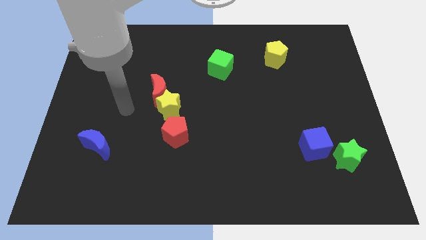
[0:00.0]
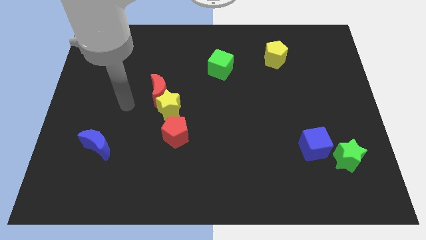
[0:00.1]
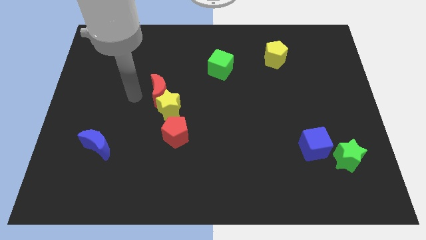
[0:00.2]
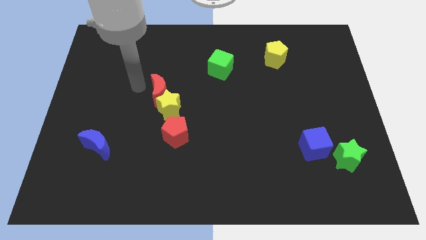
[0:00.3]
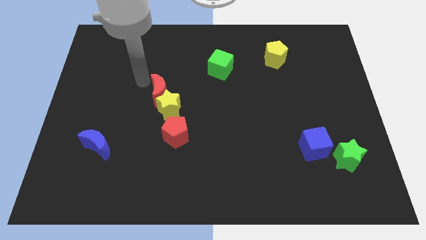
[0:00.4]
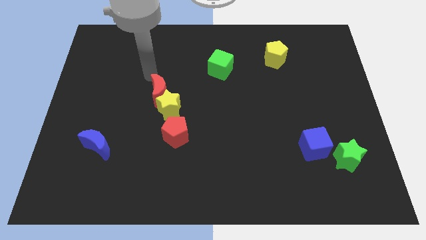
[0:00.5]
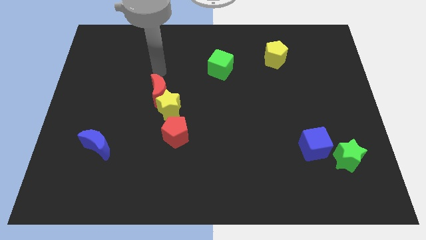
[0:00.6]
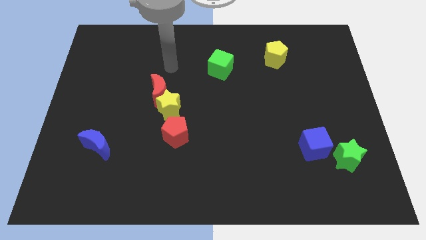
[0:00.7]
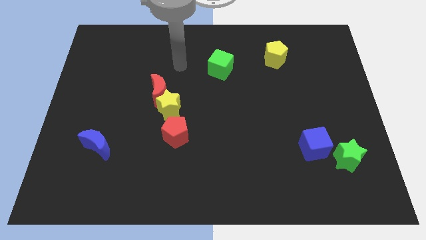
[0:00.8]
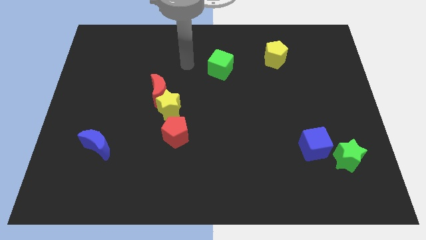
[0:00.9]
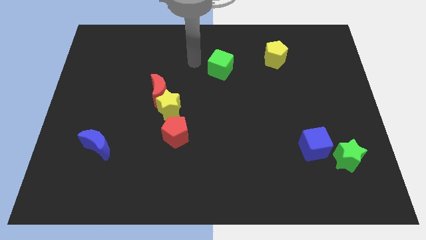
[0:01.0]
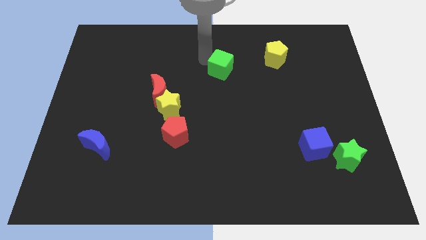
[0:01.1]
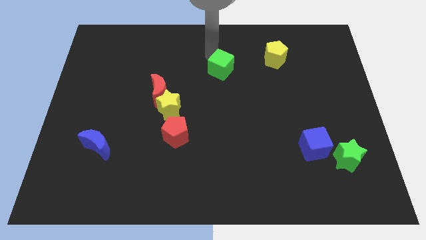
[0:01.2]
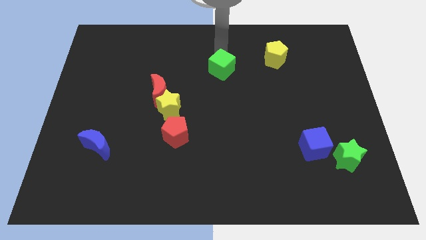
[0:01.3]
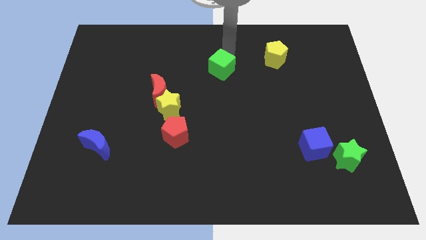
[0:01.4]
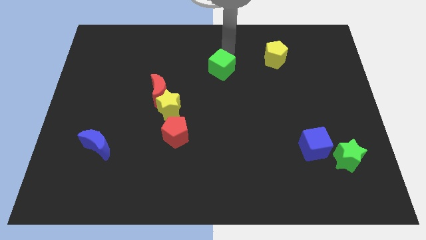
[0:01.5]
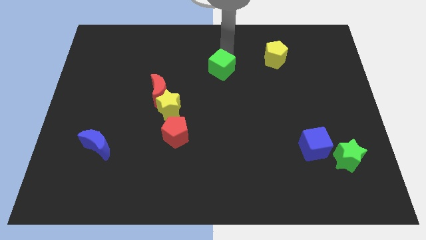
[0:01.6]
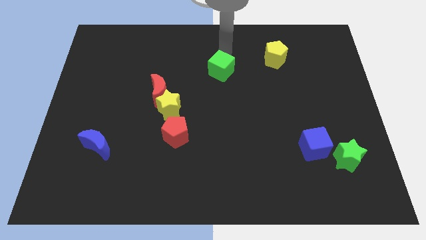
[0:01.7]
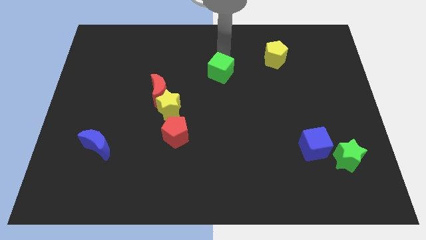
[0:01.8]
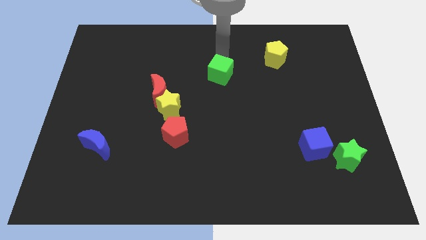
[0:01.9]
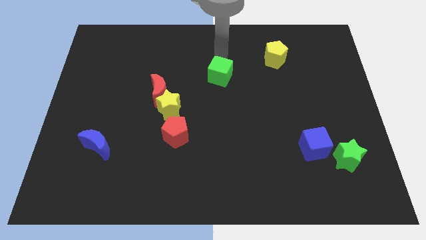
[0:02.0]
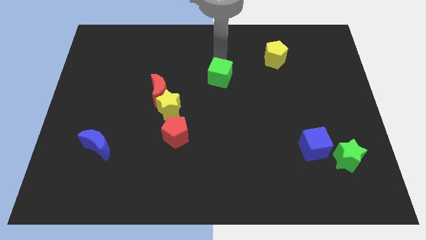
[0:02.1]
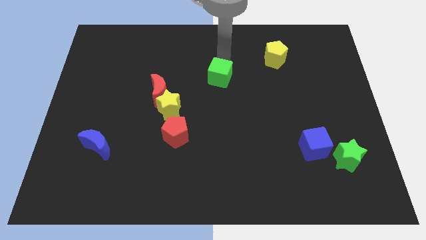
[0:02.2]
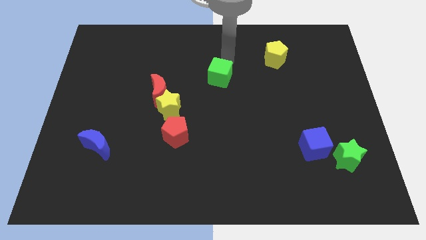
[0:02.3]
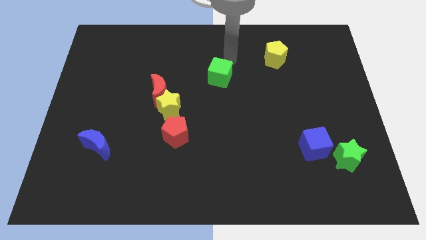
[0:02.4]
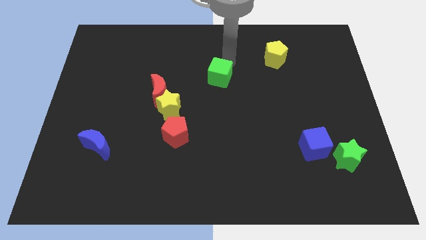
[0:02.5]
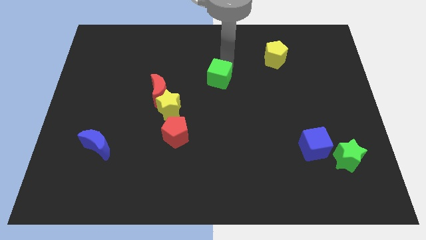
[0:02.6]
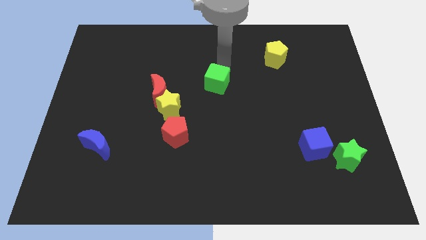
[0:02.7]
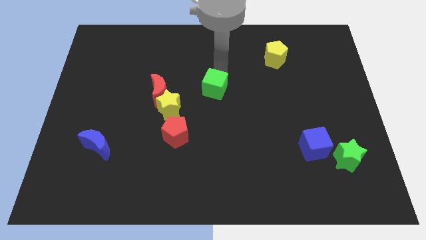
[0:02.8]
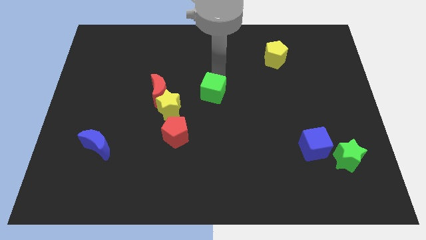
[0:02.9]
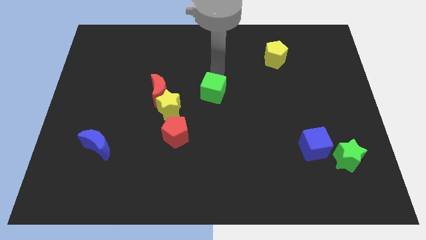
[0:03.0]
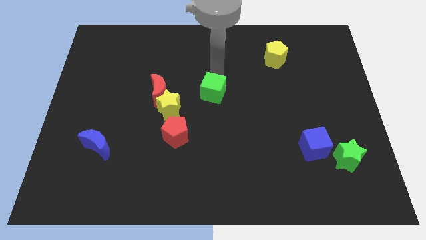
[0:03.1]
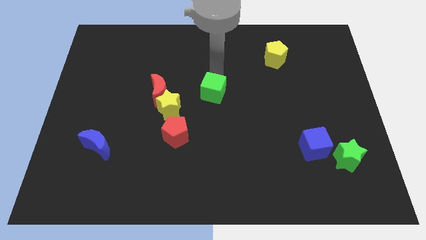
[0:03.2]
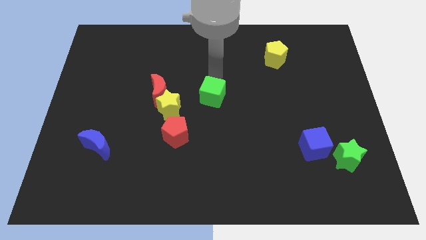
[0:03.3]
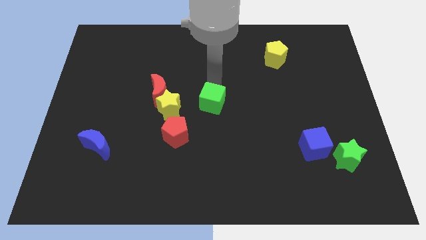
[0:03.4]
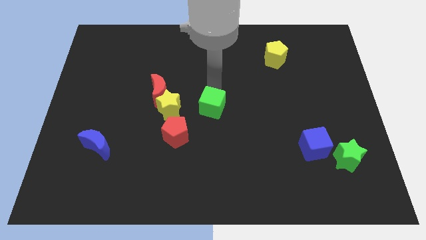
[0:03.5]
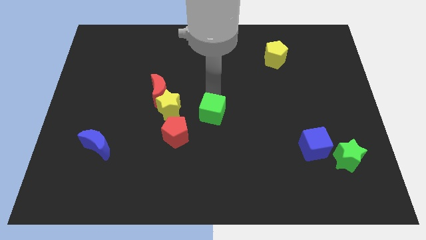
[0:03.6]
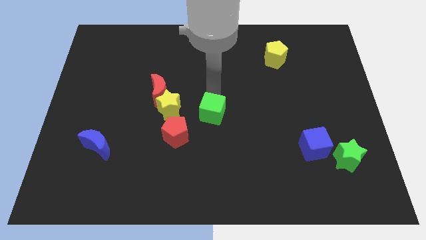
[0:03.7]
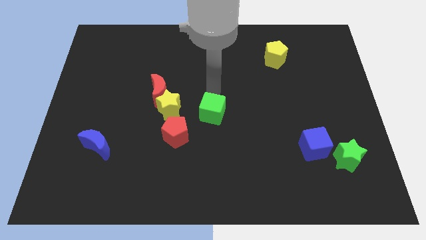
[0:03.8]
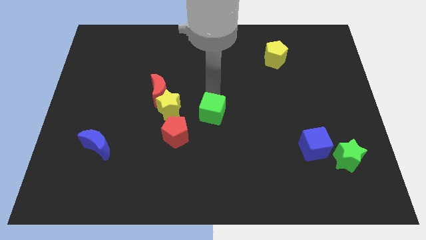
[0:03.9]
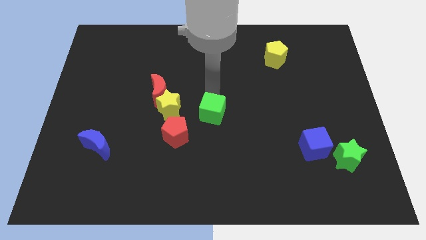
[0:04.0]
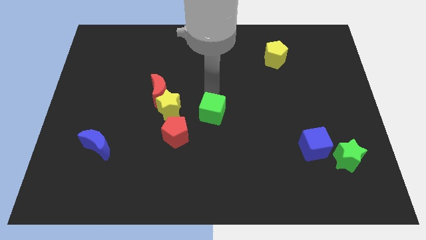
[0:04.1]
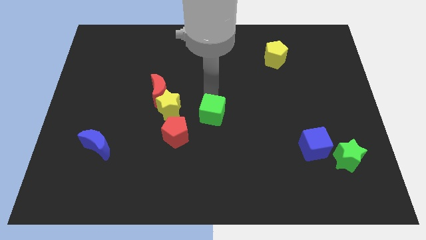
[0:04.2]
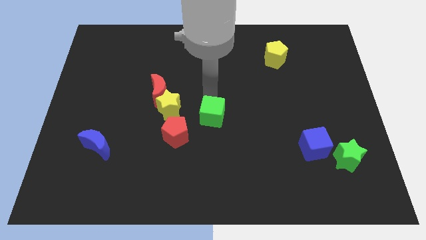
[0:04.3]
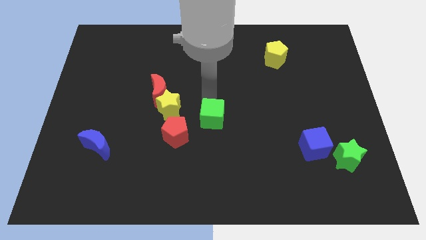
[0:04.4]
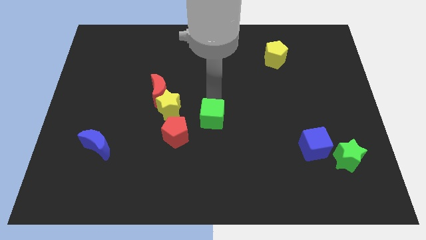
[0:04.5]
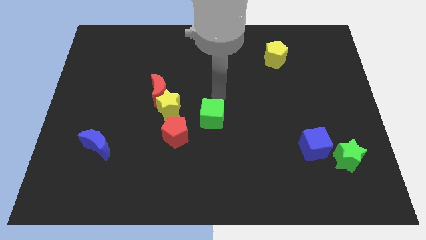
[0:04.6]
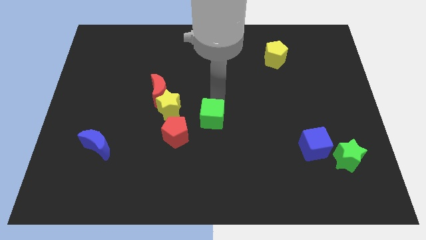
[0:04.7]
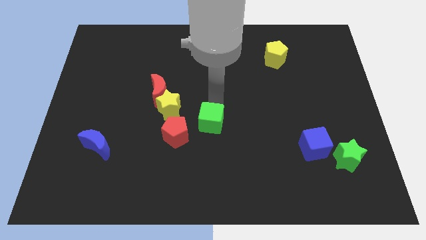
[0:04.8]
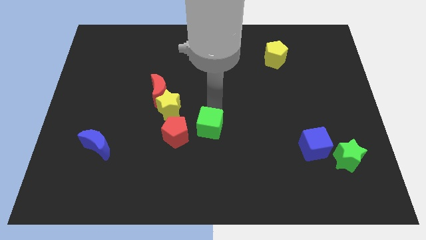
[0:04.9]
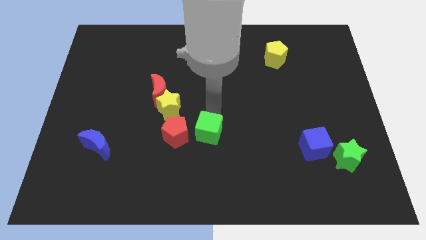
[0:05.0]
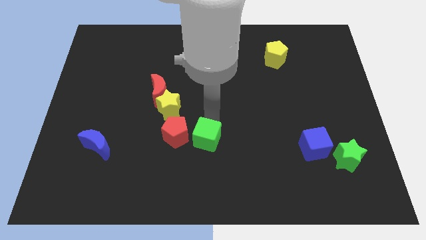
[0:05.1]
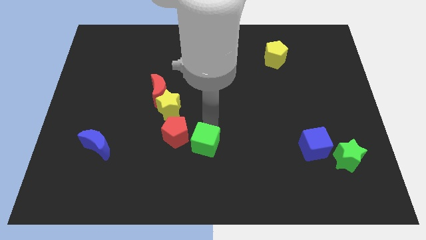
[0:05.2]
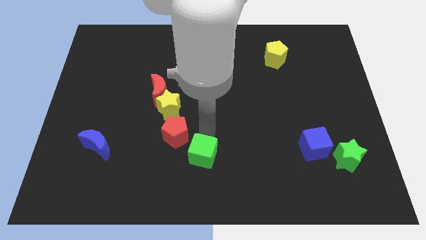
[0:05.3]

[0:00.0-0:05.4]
move the green cube to the bottom side

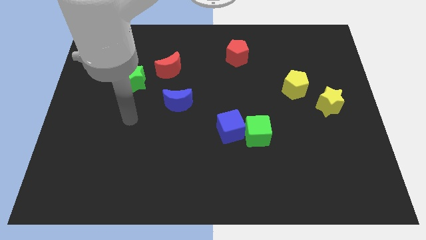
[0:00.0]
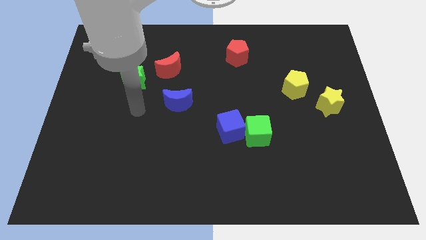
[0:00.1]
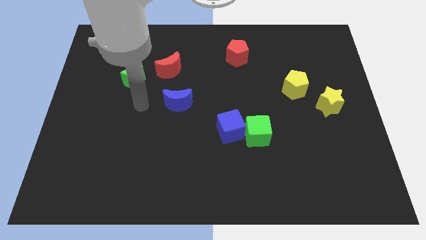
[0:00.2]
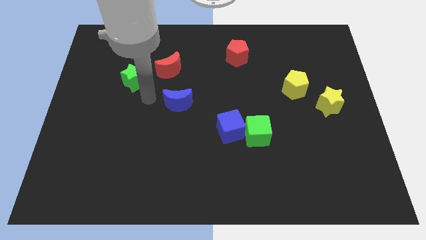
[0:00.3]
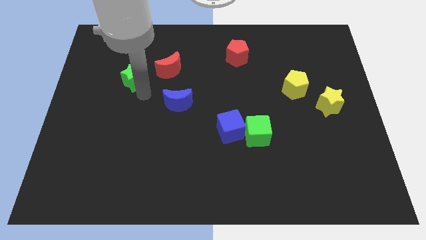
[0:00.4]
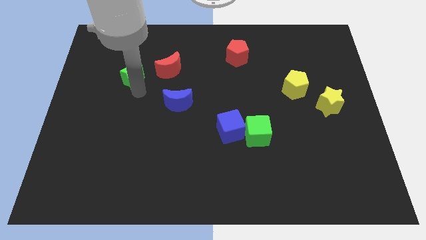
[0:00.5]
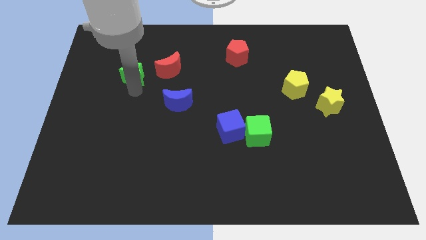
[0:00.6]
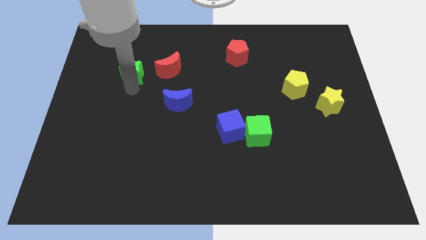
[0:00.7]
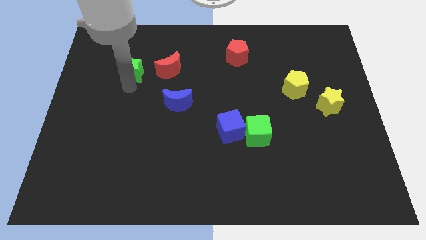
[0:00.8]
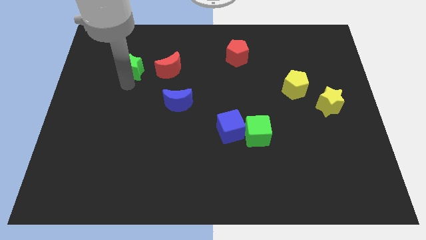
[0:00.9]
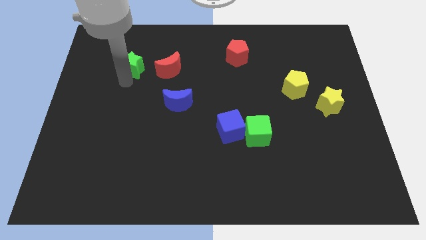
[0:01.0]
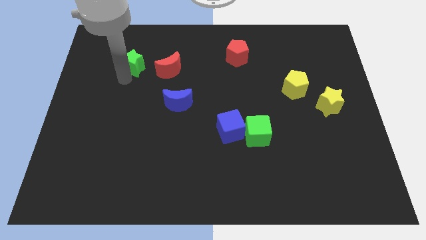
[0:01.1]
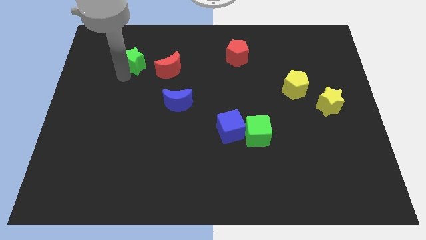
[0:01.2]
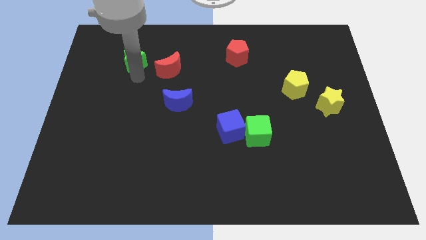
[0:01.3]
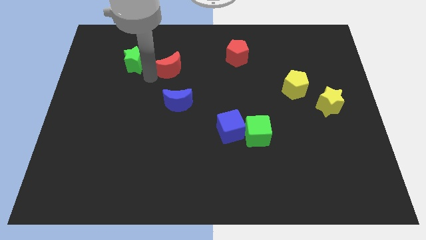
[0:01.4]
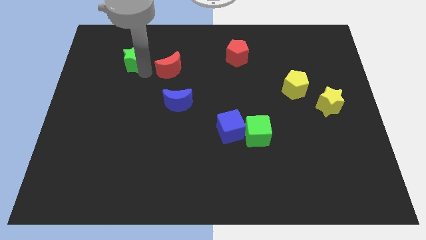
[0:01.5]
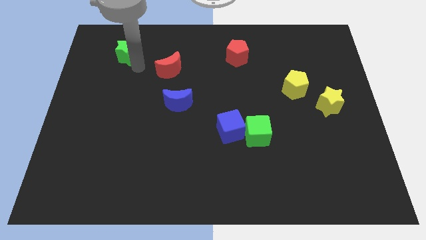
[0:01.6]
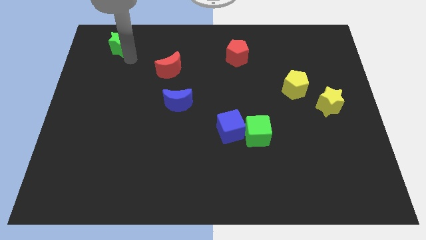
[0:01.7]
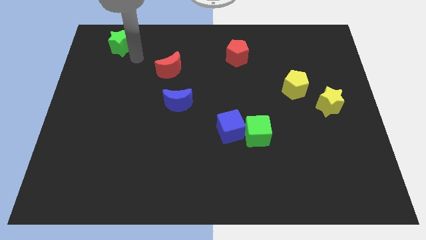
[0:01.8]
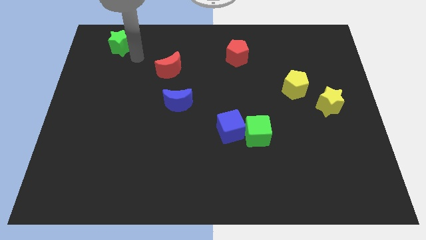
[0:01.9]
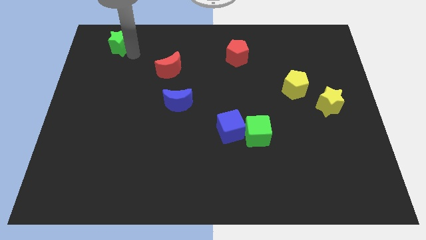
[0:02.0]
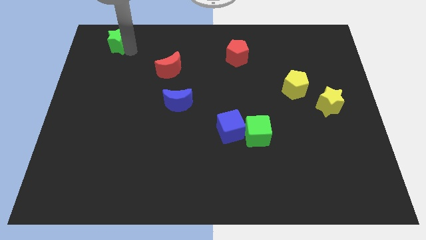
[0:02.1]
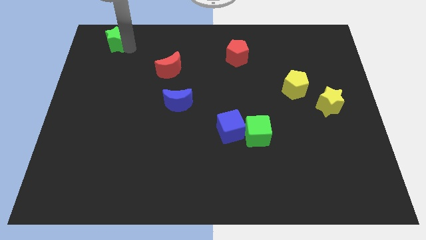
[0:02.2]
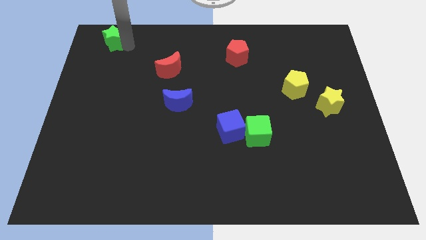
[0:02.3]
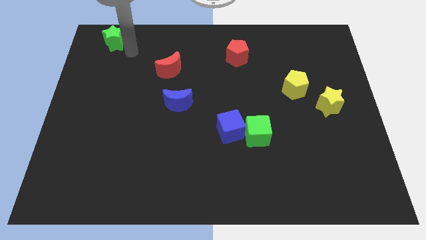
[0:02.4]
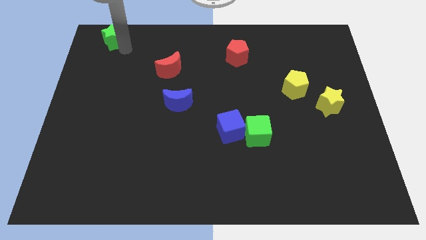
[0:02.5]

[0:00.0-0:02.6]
move the green star to the top left of the board
